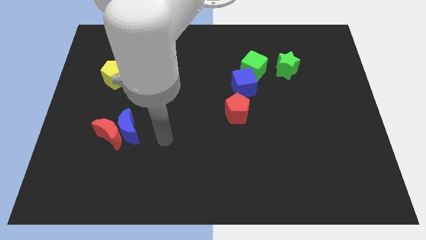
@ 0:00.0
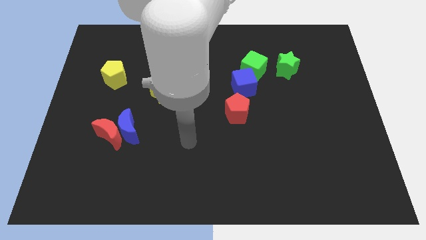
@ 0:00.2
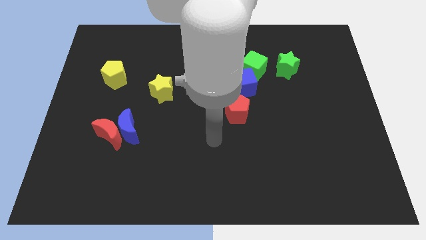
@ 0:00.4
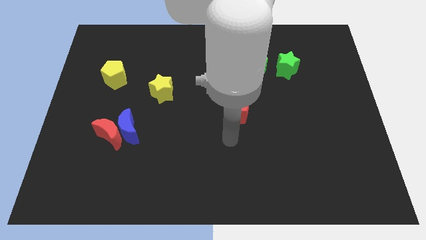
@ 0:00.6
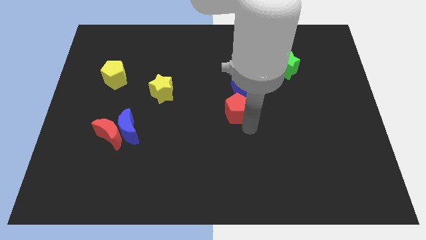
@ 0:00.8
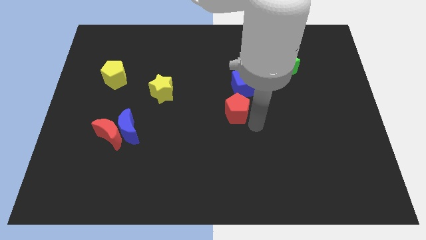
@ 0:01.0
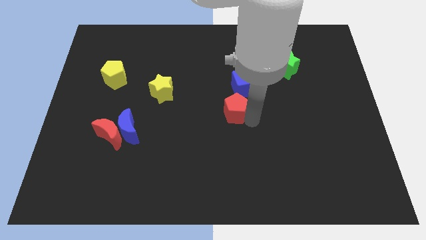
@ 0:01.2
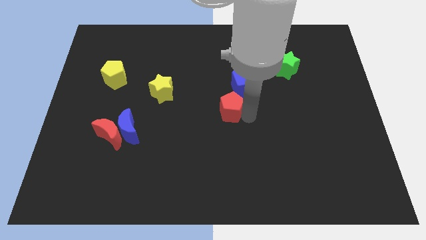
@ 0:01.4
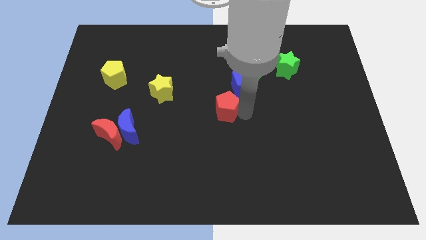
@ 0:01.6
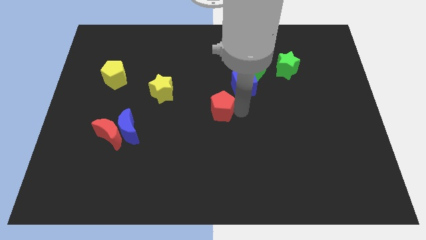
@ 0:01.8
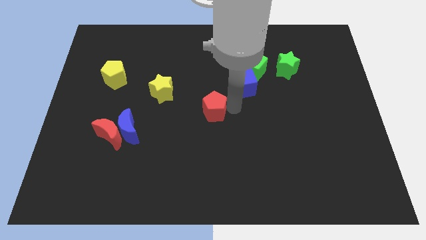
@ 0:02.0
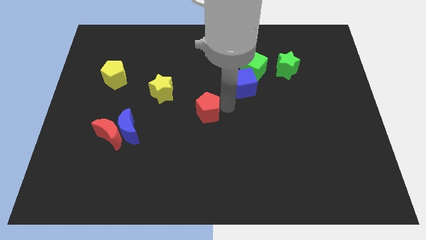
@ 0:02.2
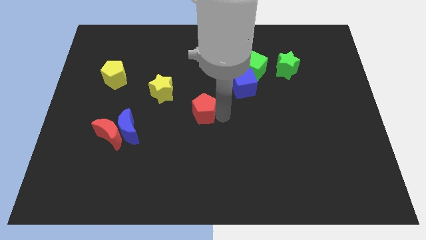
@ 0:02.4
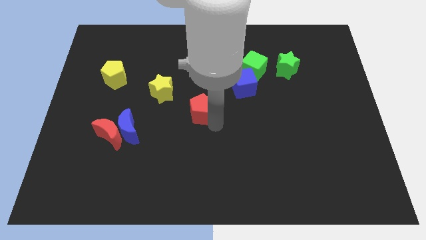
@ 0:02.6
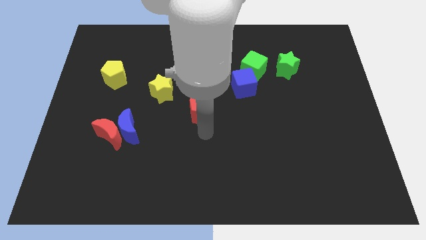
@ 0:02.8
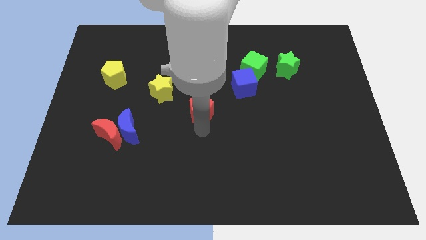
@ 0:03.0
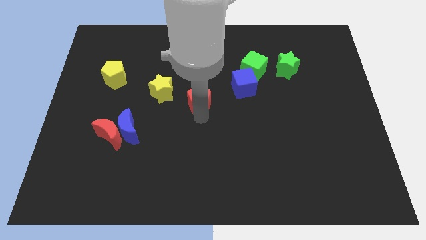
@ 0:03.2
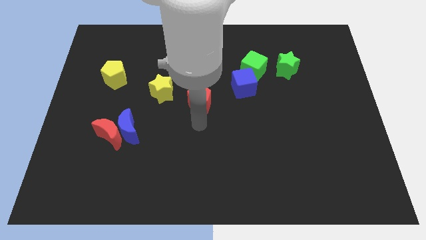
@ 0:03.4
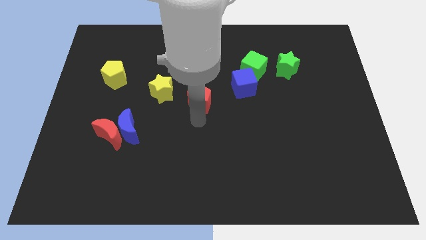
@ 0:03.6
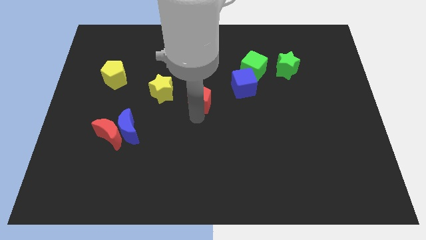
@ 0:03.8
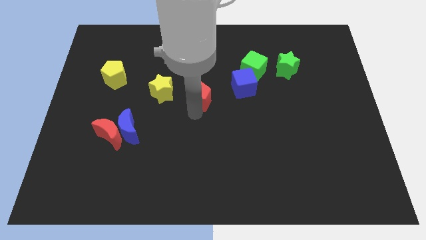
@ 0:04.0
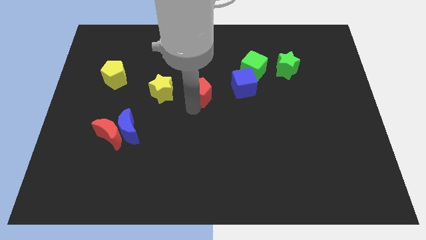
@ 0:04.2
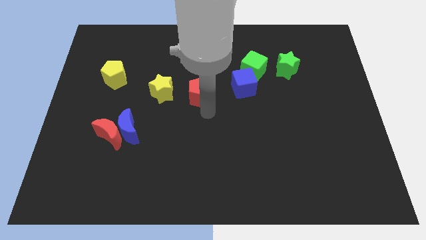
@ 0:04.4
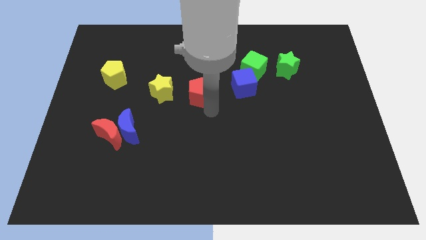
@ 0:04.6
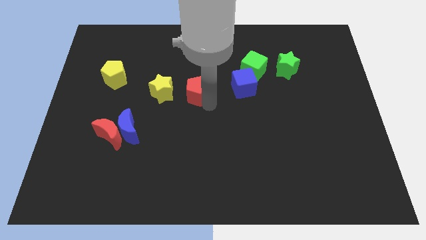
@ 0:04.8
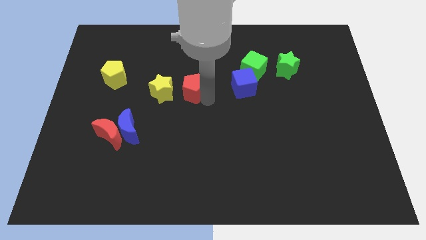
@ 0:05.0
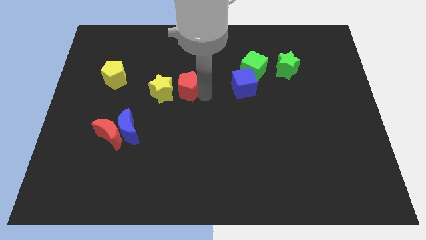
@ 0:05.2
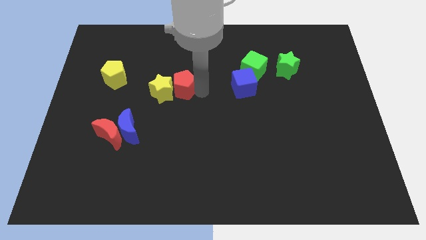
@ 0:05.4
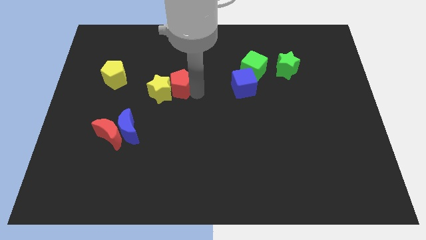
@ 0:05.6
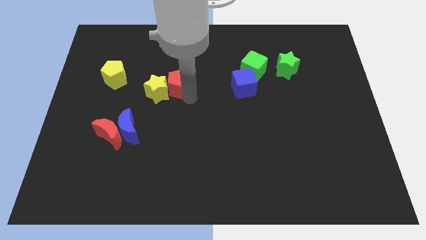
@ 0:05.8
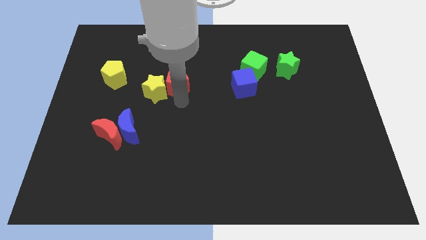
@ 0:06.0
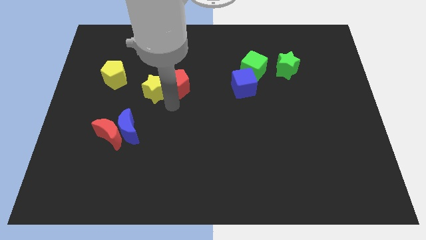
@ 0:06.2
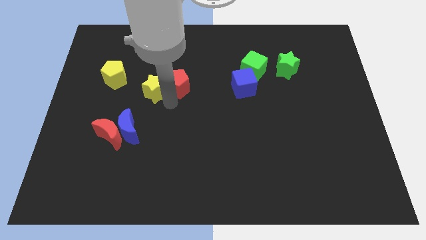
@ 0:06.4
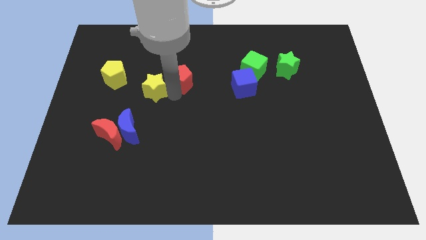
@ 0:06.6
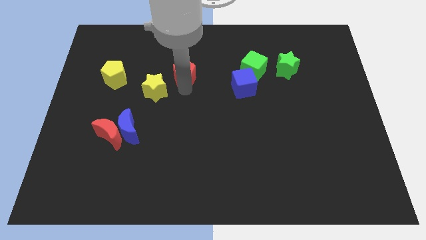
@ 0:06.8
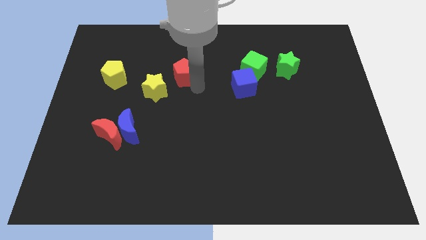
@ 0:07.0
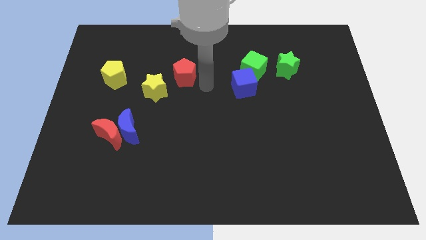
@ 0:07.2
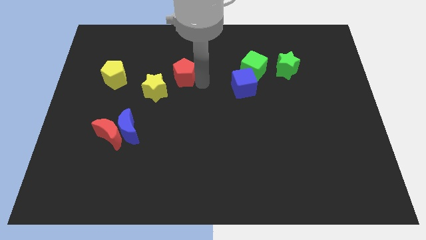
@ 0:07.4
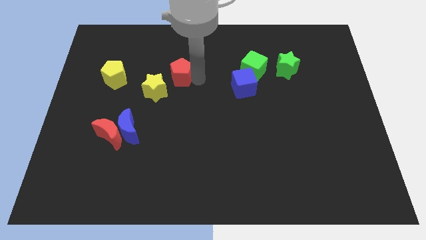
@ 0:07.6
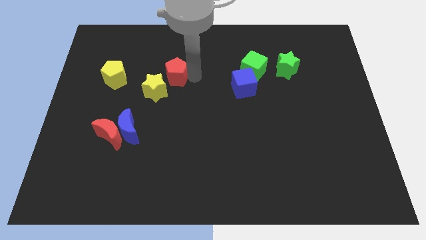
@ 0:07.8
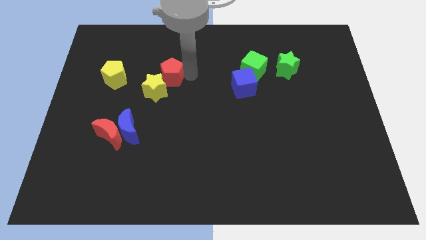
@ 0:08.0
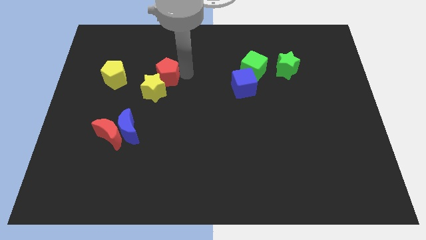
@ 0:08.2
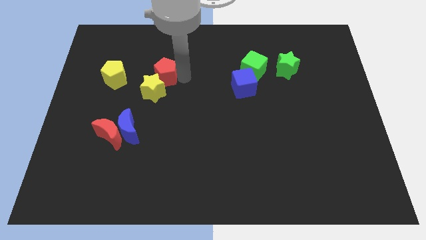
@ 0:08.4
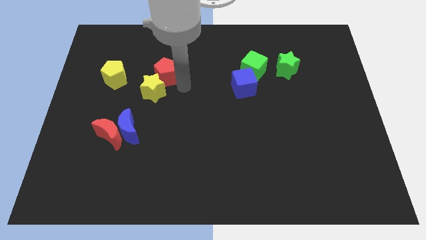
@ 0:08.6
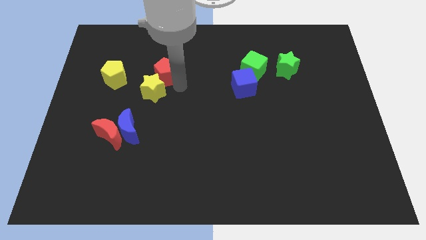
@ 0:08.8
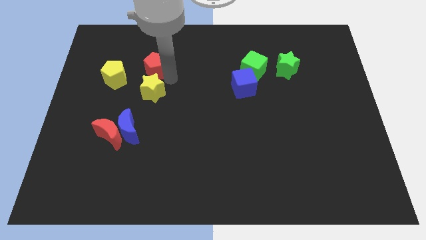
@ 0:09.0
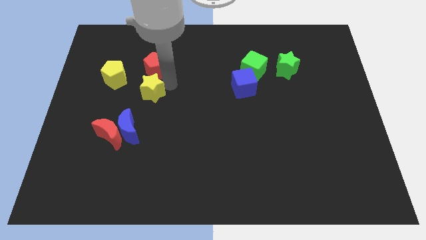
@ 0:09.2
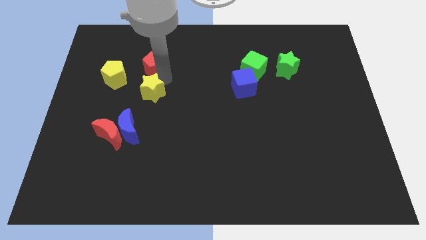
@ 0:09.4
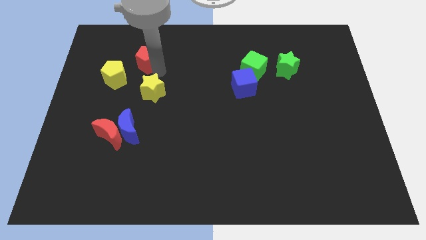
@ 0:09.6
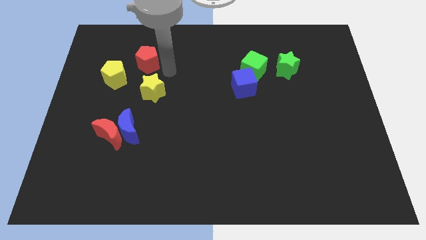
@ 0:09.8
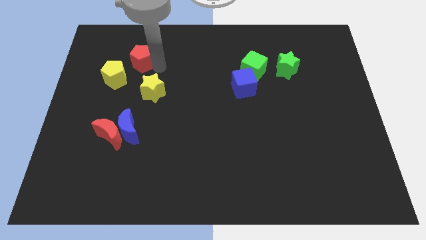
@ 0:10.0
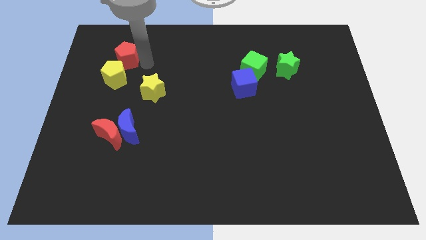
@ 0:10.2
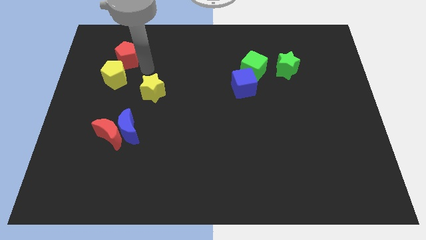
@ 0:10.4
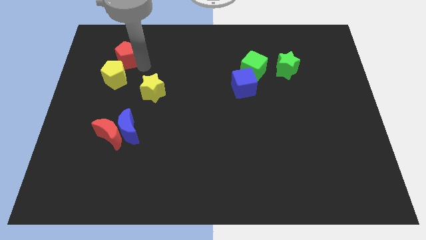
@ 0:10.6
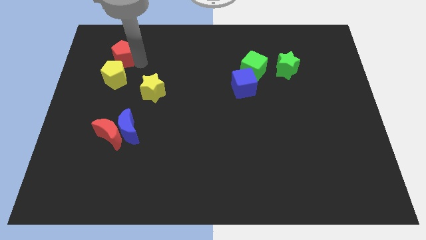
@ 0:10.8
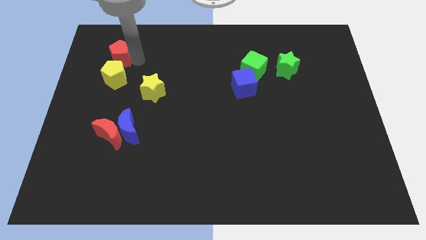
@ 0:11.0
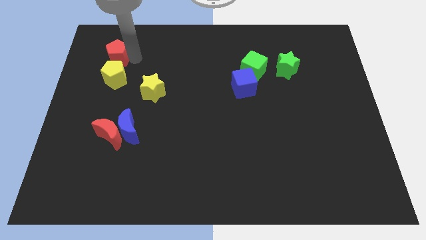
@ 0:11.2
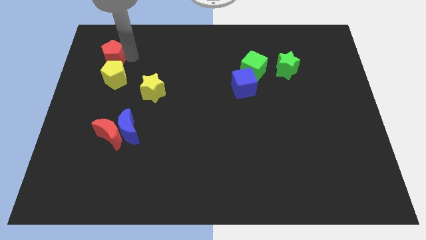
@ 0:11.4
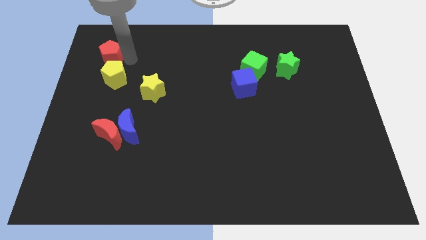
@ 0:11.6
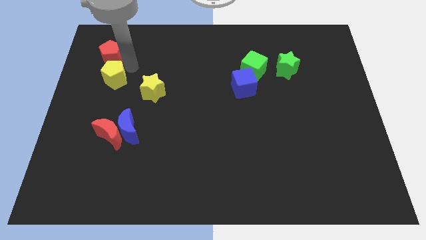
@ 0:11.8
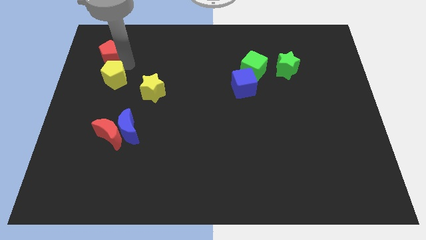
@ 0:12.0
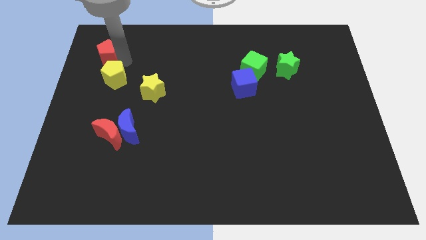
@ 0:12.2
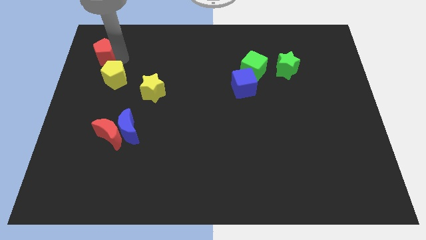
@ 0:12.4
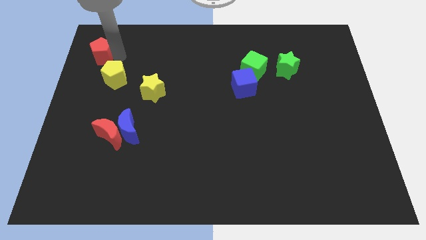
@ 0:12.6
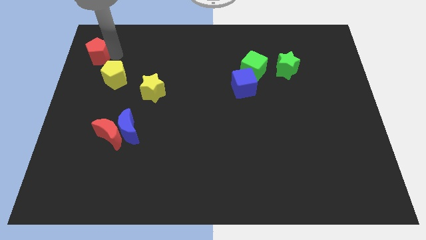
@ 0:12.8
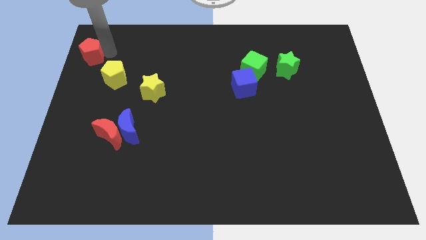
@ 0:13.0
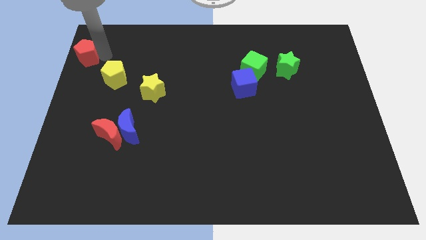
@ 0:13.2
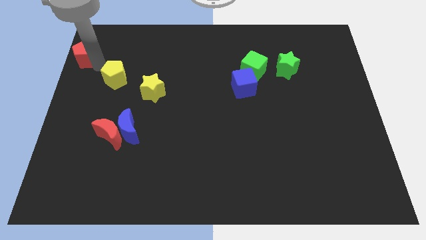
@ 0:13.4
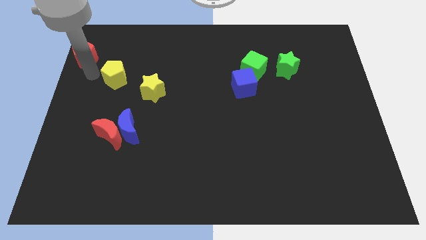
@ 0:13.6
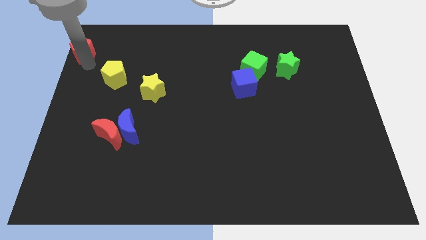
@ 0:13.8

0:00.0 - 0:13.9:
slide the red pentagon to the top left of the board

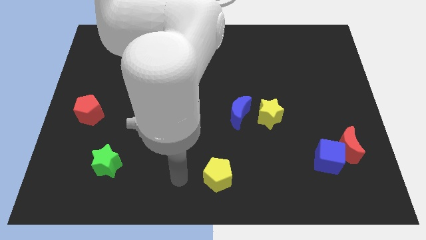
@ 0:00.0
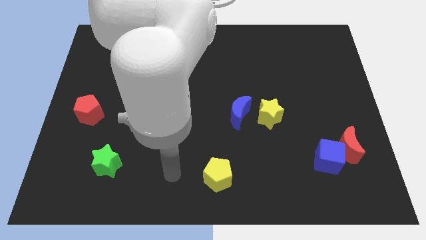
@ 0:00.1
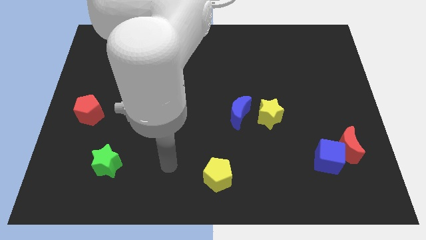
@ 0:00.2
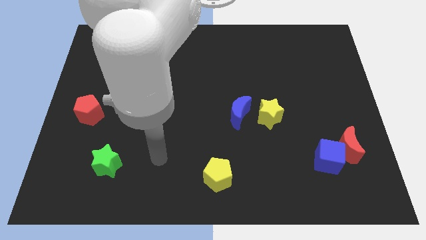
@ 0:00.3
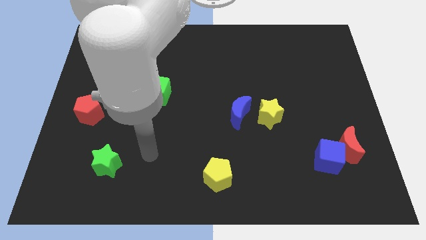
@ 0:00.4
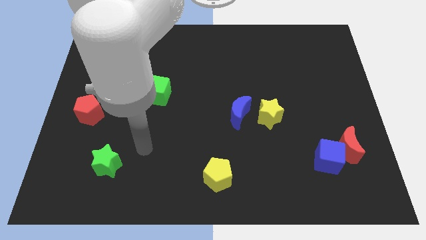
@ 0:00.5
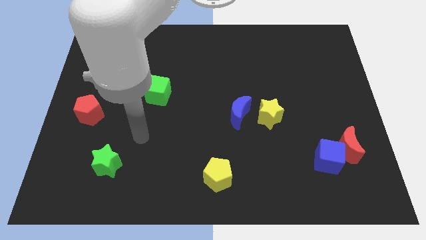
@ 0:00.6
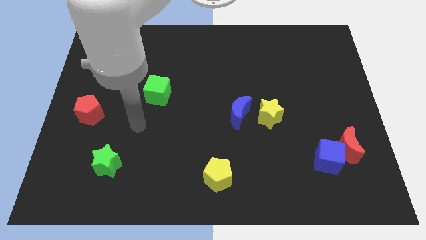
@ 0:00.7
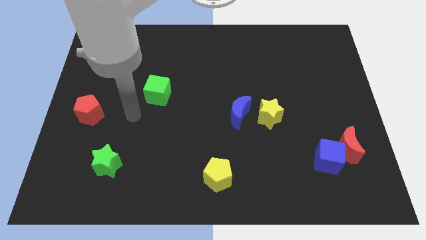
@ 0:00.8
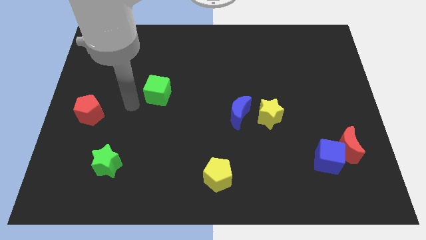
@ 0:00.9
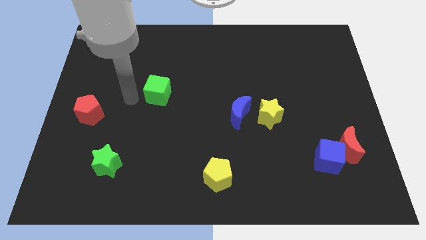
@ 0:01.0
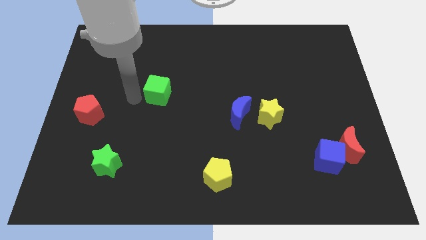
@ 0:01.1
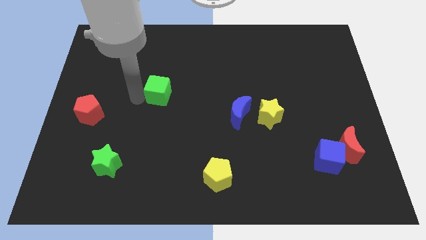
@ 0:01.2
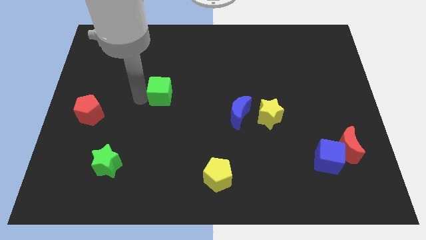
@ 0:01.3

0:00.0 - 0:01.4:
slide the green cube to the middle of the board
